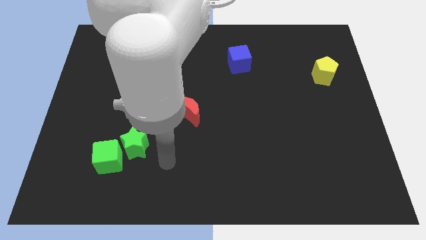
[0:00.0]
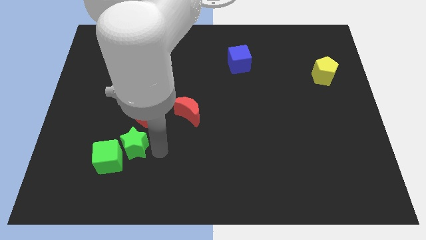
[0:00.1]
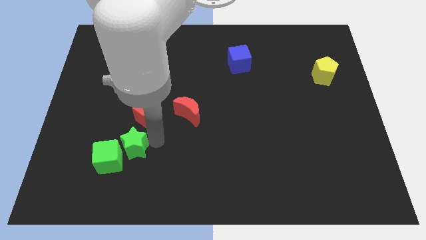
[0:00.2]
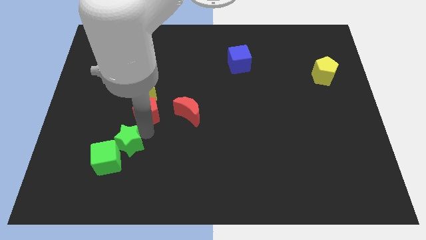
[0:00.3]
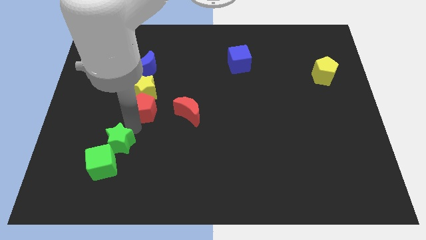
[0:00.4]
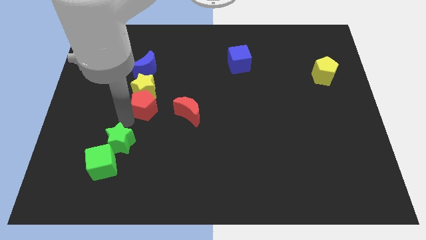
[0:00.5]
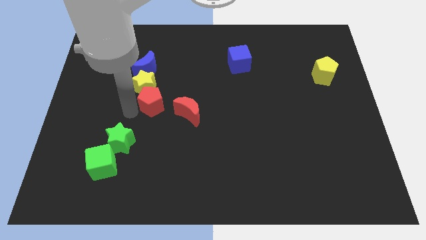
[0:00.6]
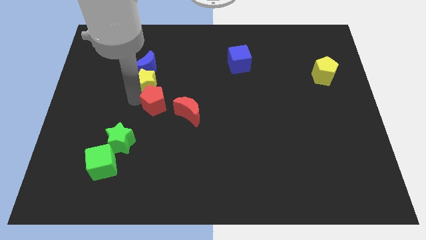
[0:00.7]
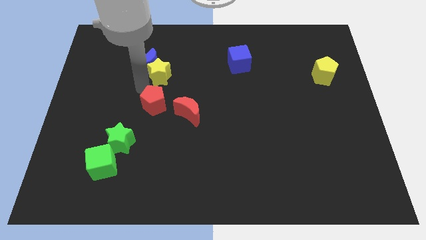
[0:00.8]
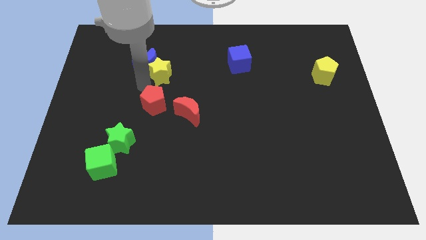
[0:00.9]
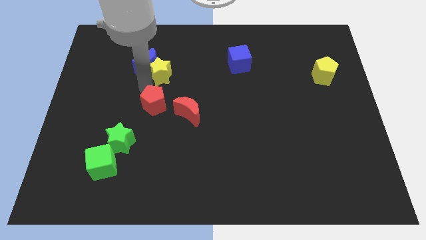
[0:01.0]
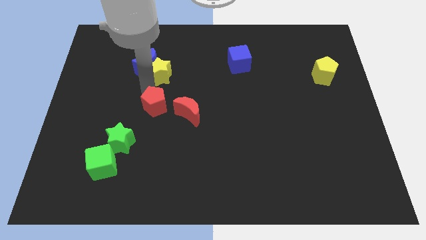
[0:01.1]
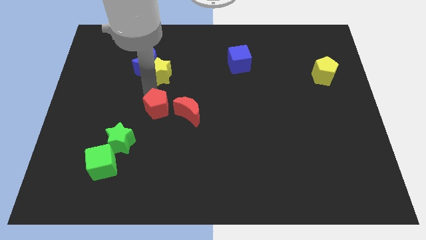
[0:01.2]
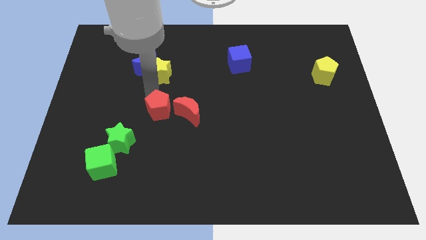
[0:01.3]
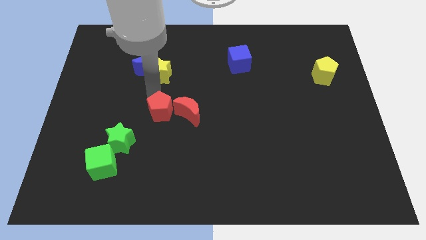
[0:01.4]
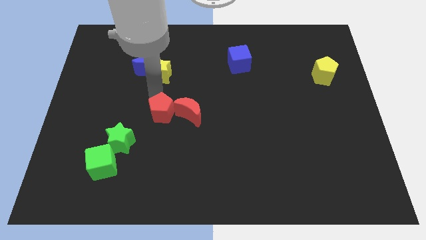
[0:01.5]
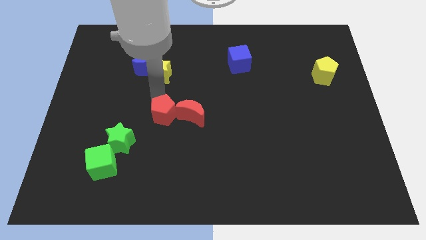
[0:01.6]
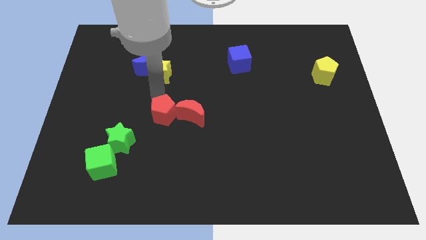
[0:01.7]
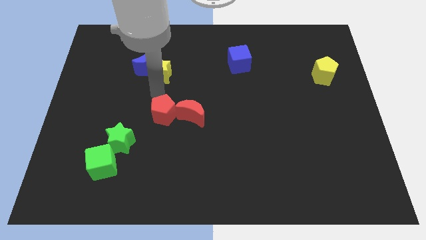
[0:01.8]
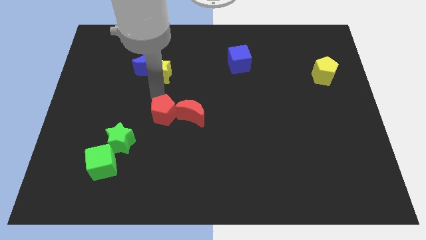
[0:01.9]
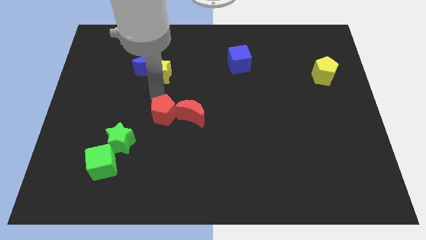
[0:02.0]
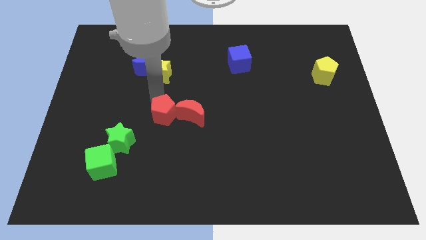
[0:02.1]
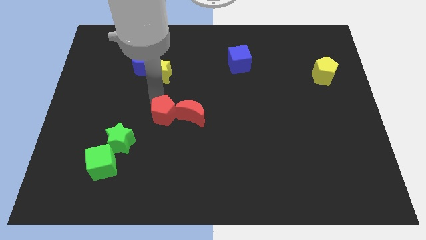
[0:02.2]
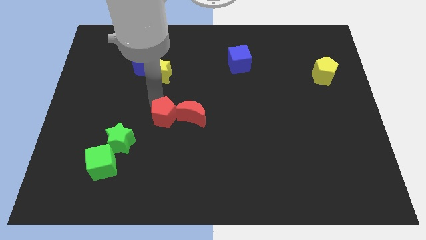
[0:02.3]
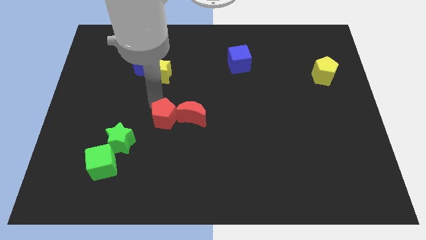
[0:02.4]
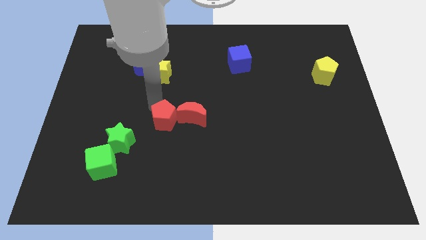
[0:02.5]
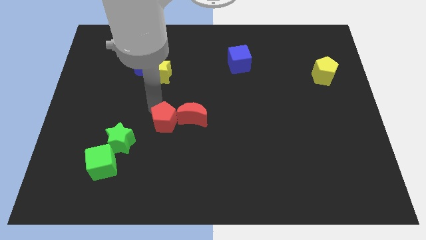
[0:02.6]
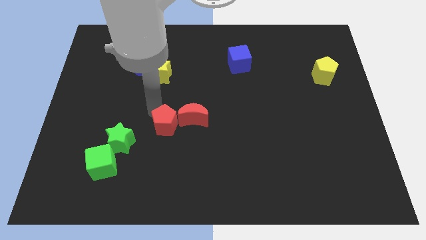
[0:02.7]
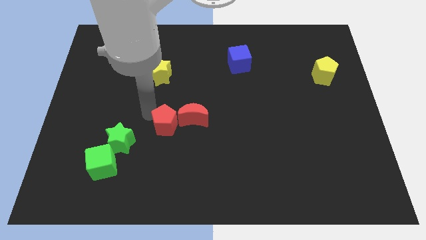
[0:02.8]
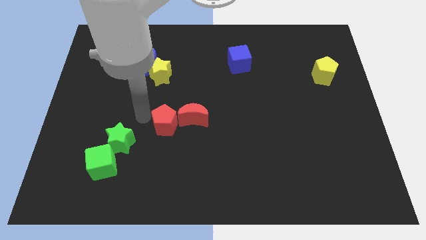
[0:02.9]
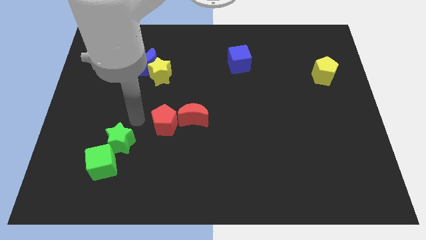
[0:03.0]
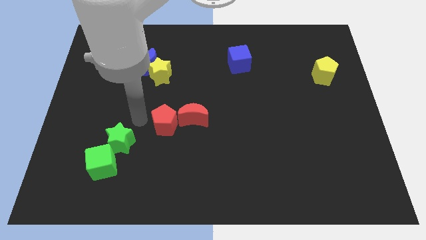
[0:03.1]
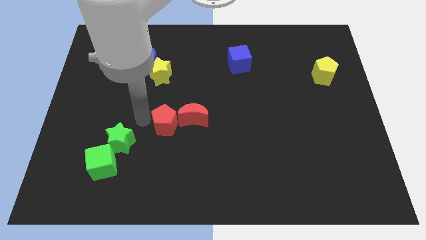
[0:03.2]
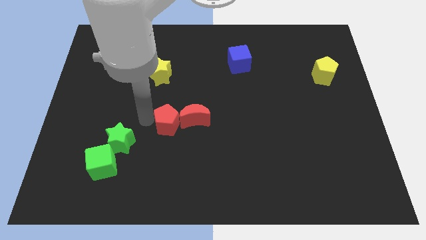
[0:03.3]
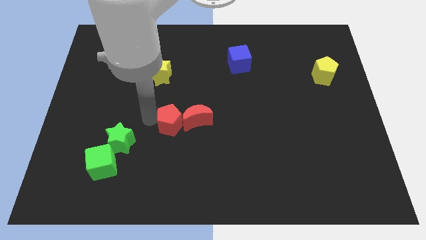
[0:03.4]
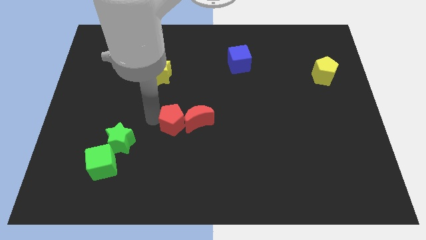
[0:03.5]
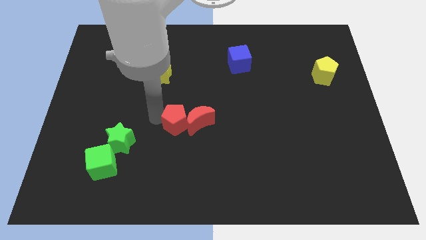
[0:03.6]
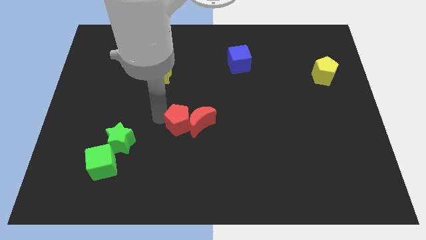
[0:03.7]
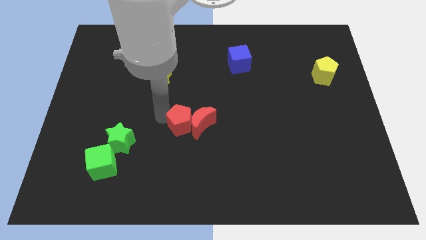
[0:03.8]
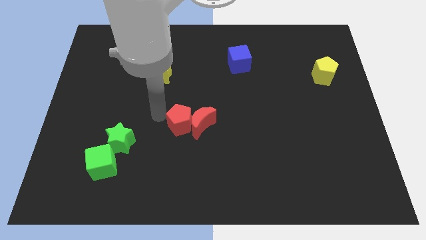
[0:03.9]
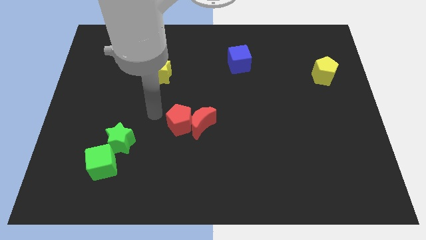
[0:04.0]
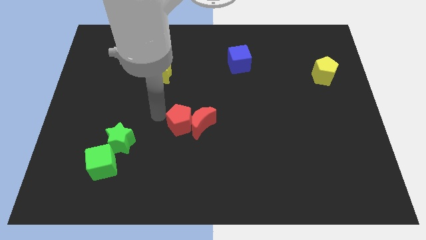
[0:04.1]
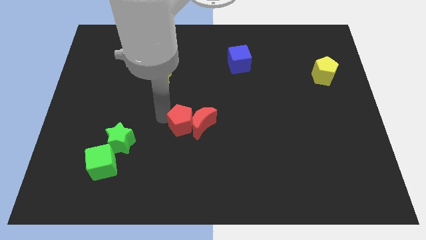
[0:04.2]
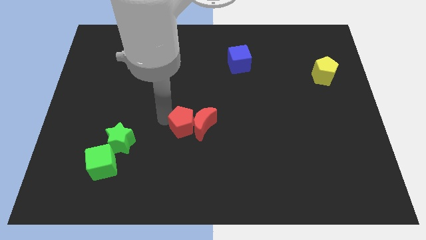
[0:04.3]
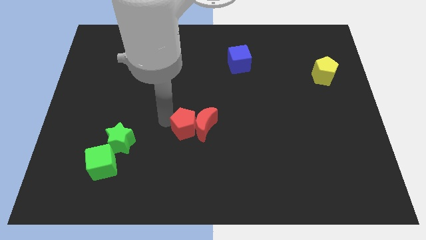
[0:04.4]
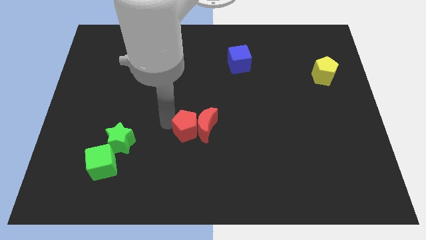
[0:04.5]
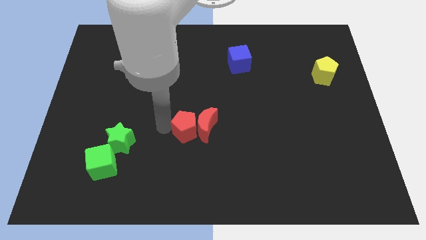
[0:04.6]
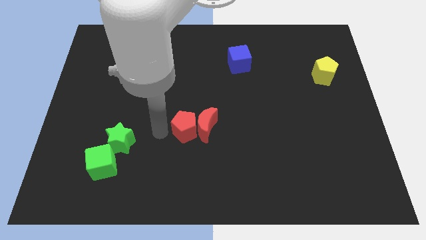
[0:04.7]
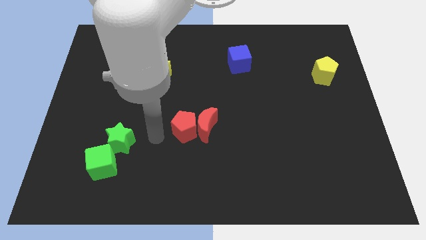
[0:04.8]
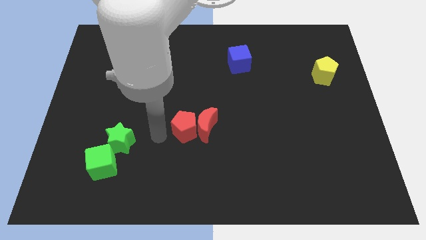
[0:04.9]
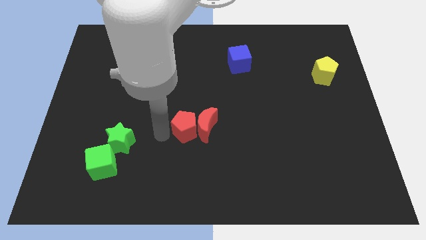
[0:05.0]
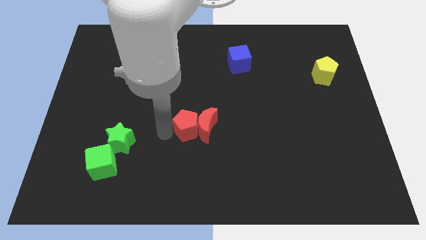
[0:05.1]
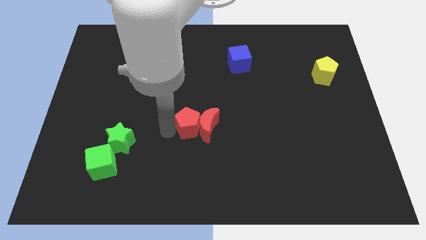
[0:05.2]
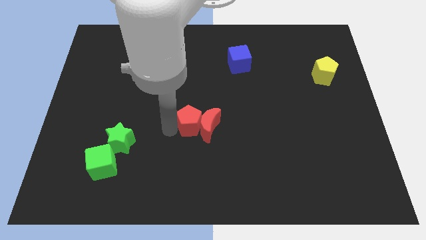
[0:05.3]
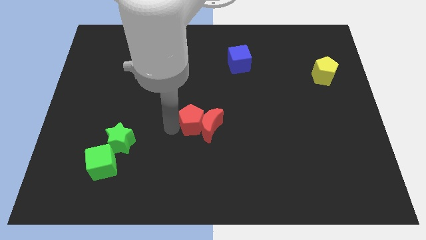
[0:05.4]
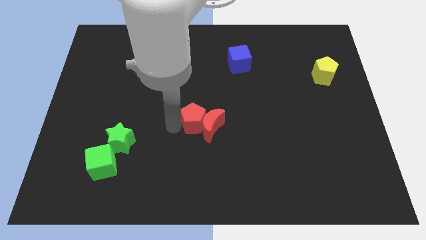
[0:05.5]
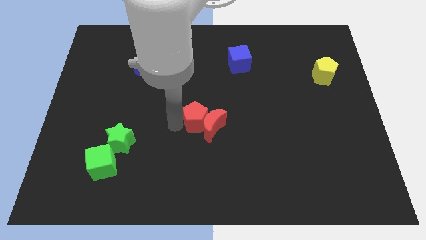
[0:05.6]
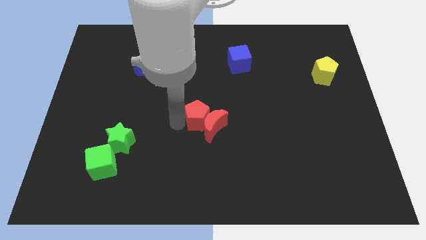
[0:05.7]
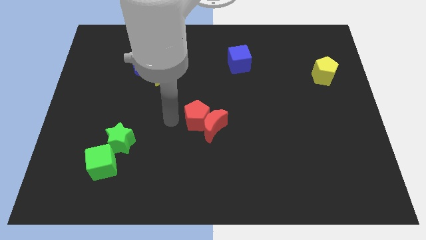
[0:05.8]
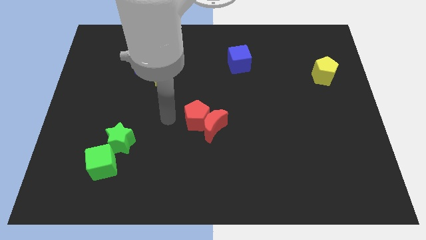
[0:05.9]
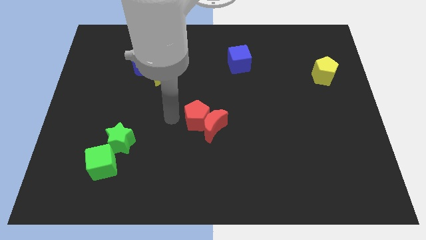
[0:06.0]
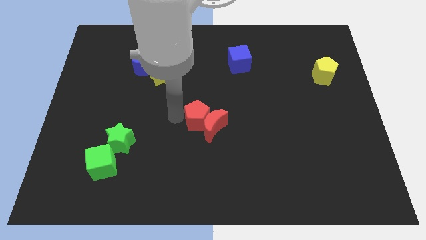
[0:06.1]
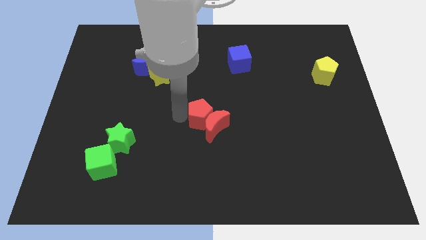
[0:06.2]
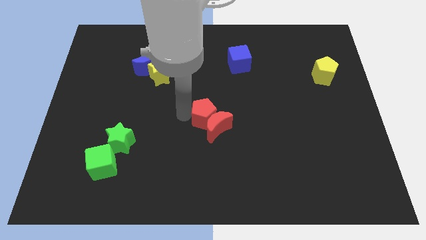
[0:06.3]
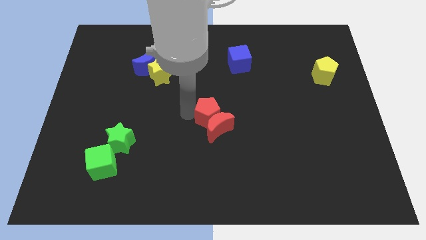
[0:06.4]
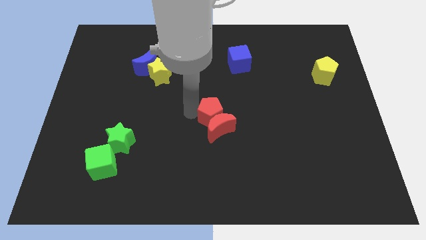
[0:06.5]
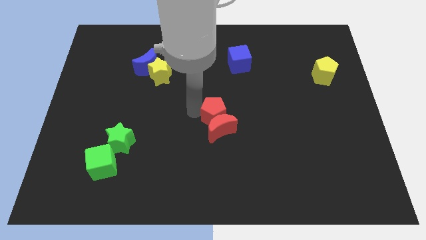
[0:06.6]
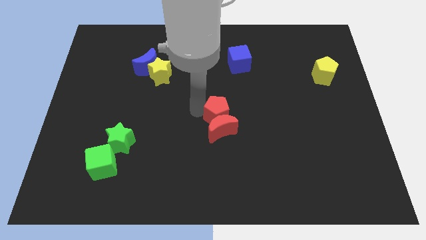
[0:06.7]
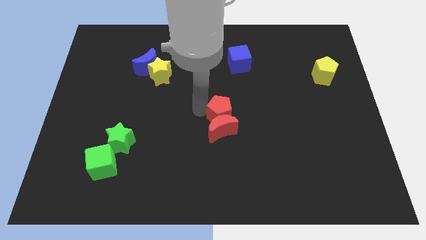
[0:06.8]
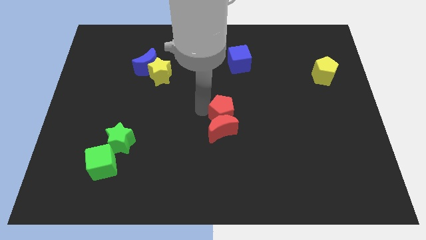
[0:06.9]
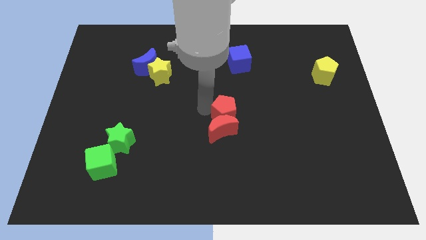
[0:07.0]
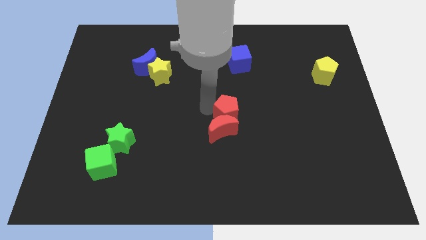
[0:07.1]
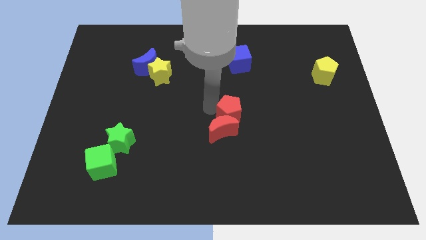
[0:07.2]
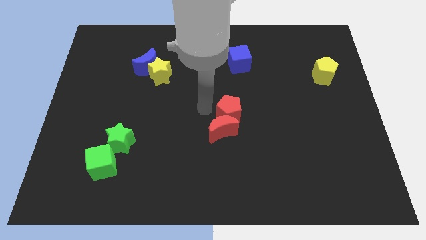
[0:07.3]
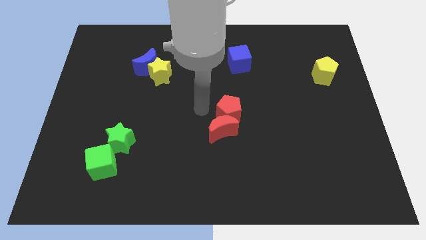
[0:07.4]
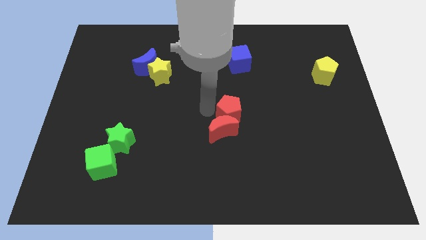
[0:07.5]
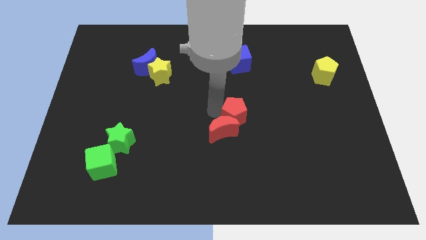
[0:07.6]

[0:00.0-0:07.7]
slide the red pentagon right

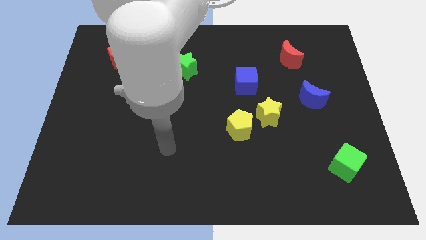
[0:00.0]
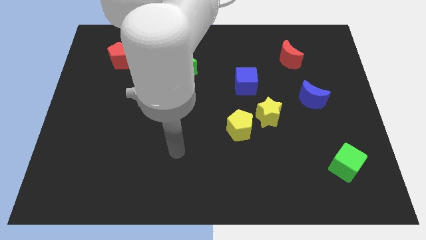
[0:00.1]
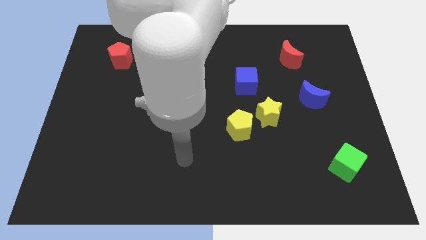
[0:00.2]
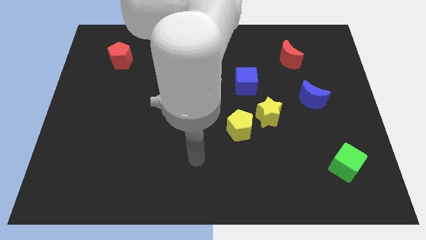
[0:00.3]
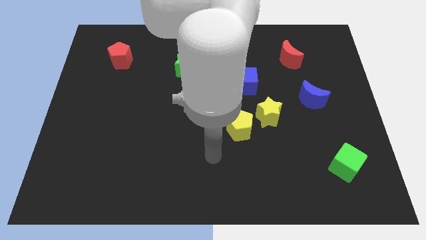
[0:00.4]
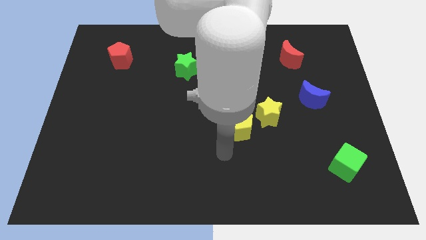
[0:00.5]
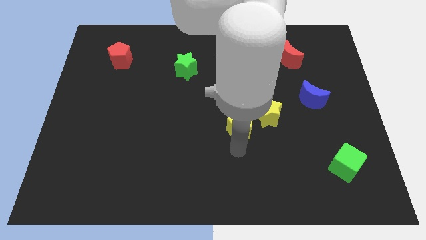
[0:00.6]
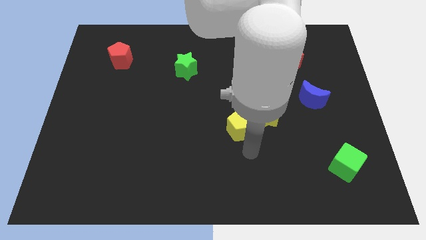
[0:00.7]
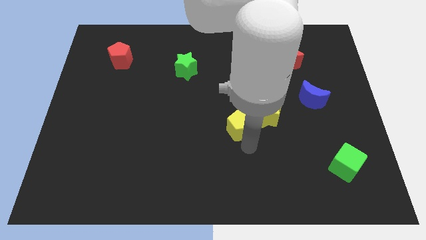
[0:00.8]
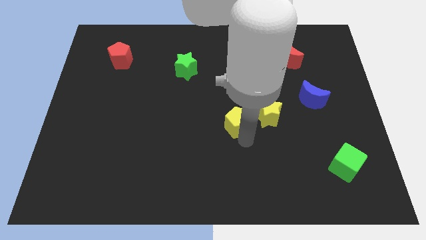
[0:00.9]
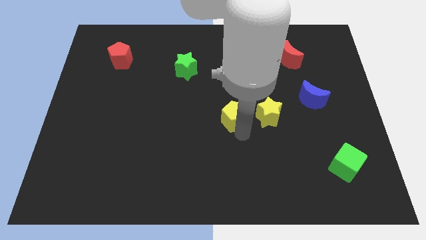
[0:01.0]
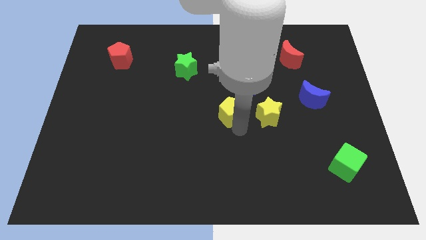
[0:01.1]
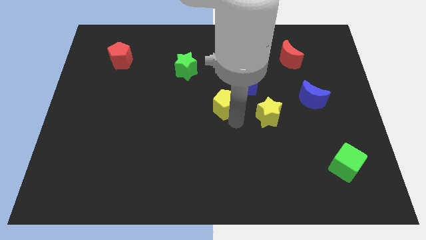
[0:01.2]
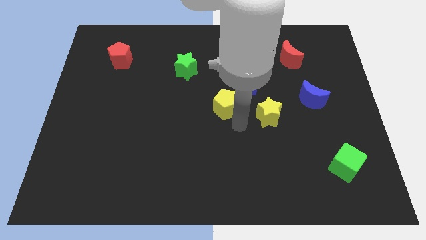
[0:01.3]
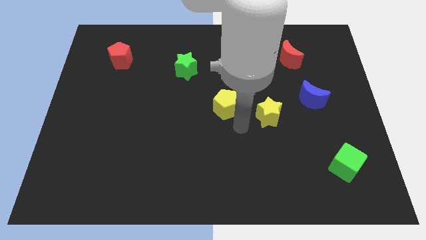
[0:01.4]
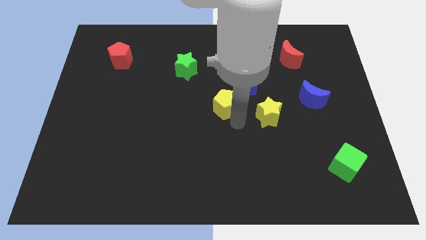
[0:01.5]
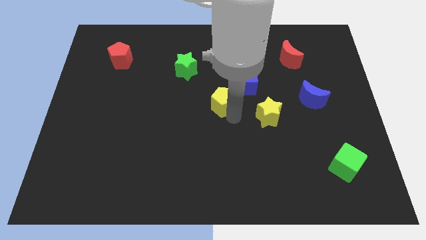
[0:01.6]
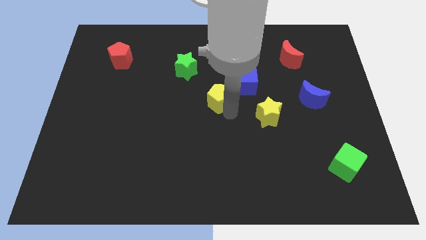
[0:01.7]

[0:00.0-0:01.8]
move the yellow pentagon up a bit
